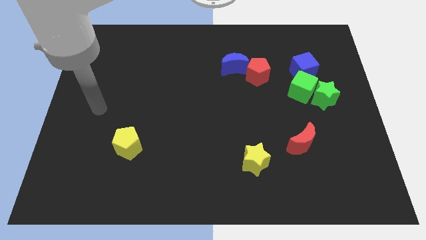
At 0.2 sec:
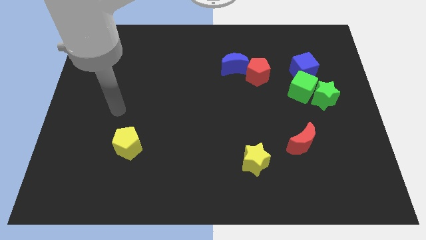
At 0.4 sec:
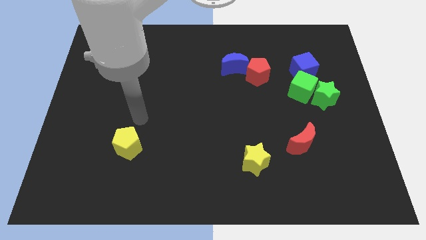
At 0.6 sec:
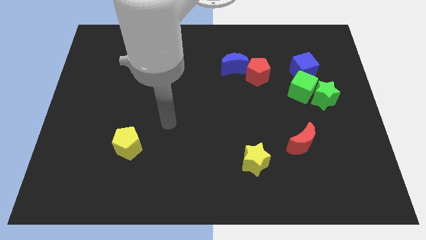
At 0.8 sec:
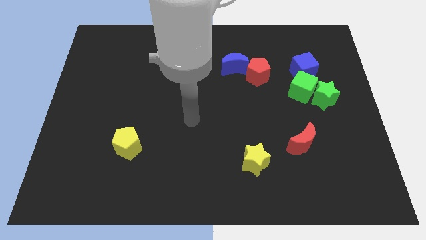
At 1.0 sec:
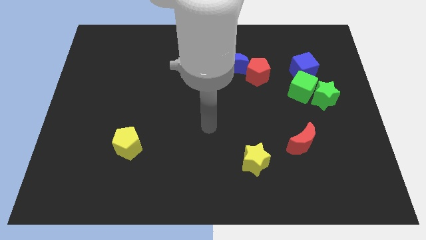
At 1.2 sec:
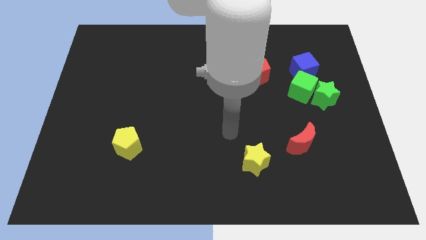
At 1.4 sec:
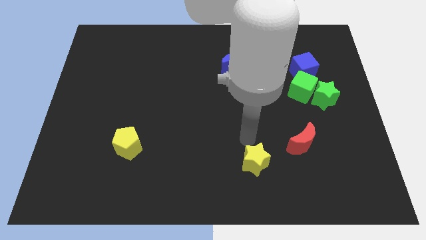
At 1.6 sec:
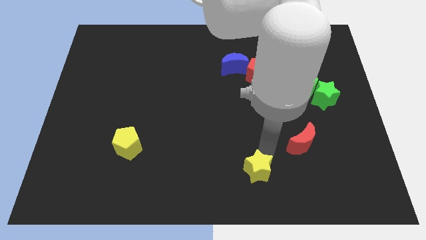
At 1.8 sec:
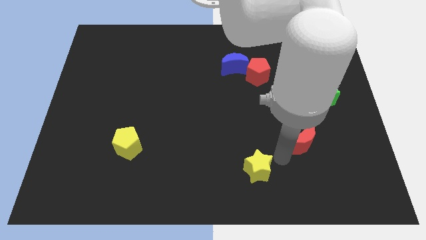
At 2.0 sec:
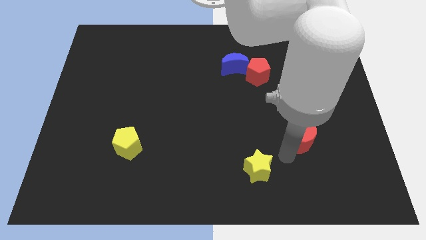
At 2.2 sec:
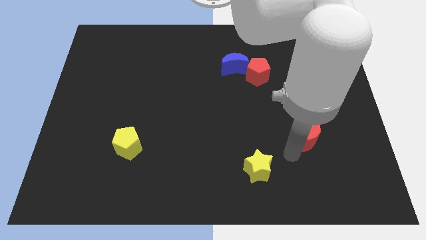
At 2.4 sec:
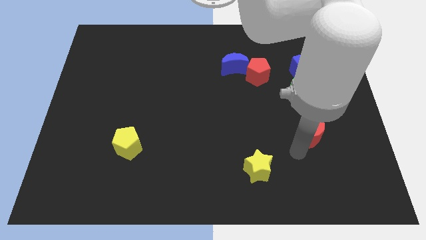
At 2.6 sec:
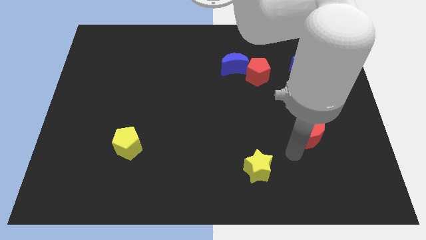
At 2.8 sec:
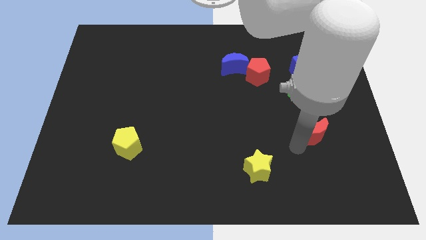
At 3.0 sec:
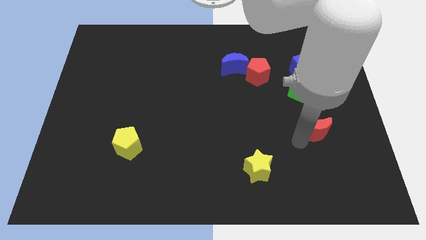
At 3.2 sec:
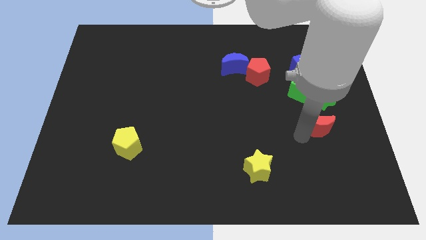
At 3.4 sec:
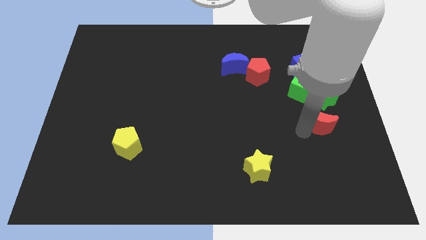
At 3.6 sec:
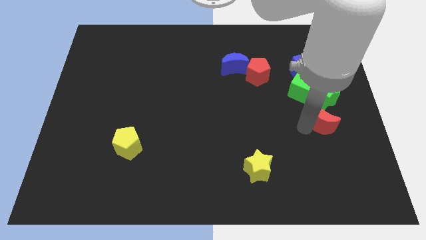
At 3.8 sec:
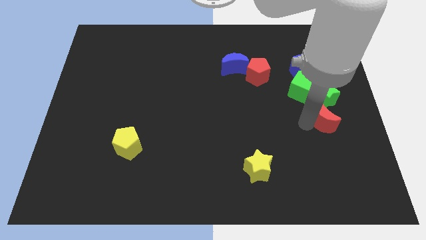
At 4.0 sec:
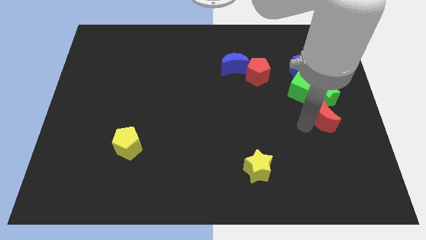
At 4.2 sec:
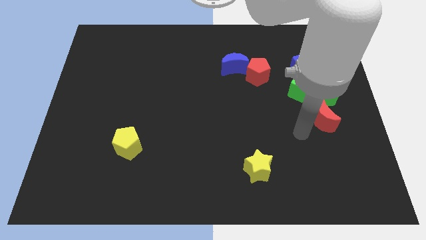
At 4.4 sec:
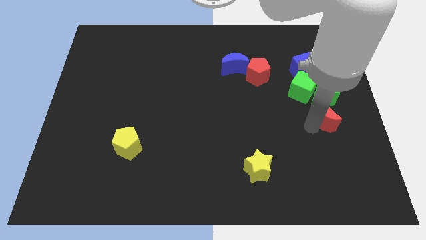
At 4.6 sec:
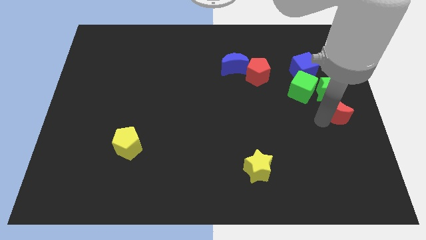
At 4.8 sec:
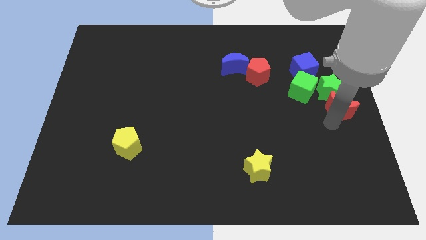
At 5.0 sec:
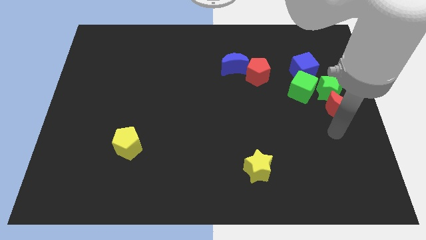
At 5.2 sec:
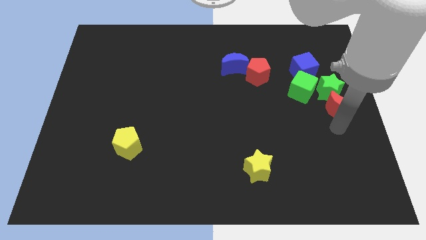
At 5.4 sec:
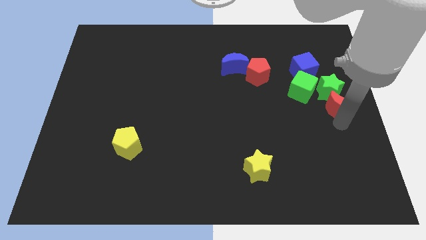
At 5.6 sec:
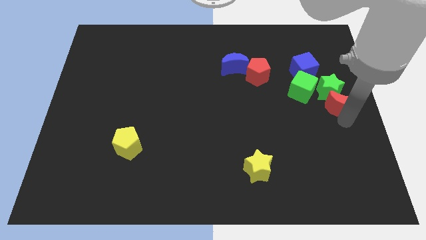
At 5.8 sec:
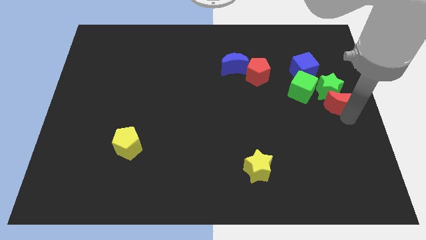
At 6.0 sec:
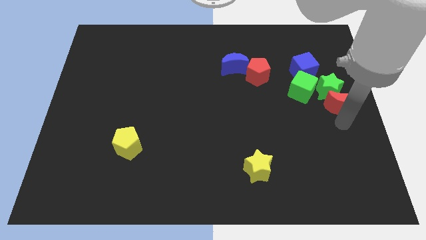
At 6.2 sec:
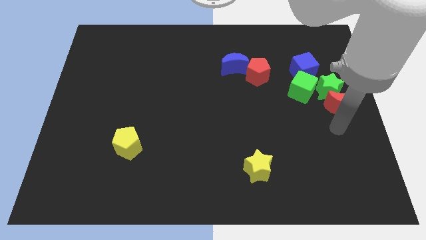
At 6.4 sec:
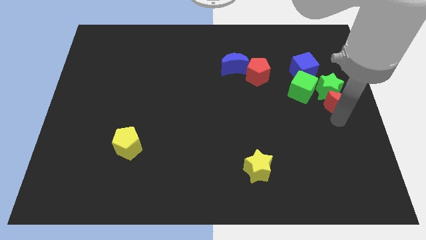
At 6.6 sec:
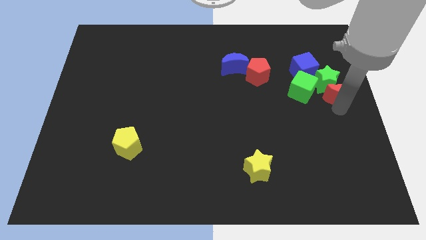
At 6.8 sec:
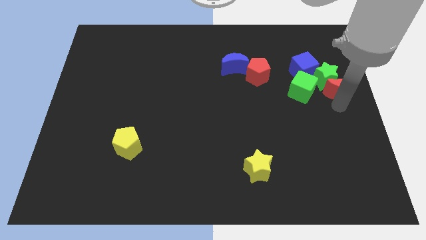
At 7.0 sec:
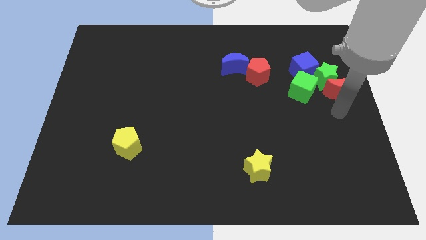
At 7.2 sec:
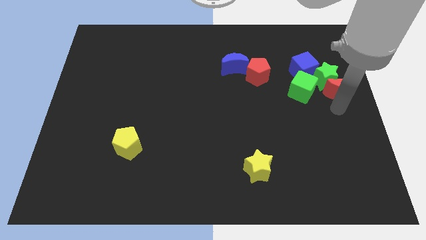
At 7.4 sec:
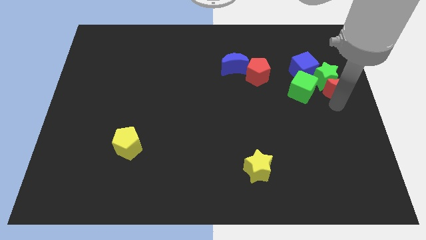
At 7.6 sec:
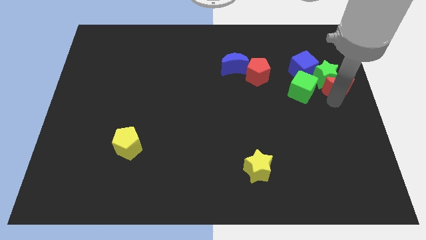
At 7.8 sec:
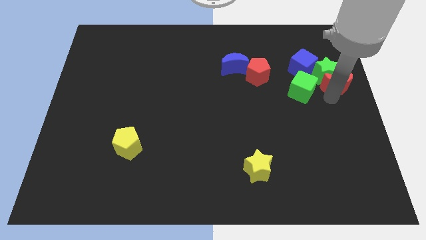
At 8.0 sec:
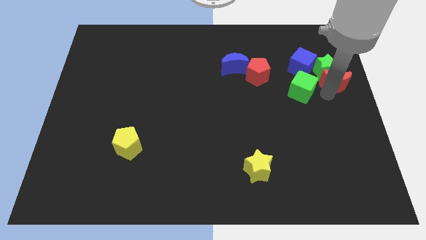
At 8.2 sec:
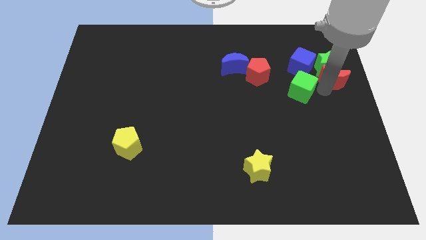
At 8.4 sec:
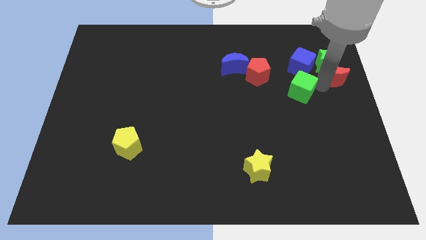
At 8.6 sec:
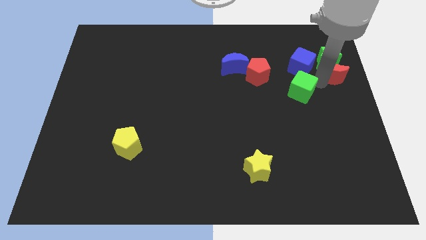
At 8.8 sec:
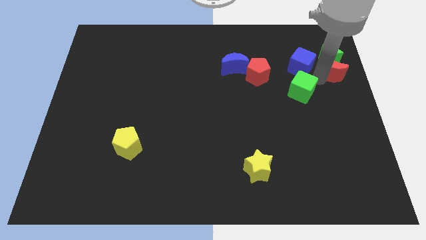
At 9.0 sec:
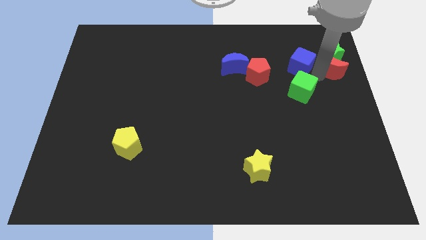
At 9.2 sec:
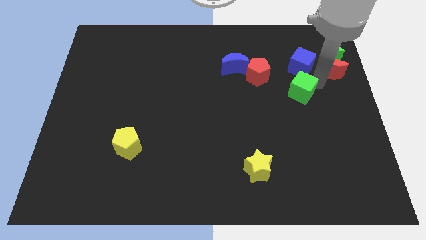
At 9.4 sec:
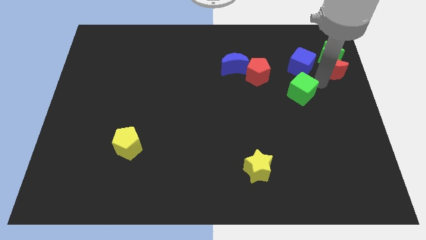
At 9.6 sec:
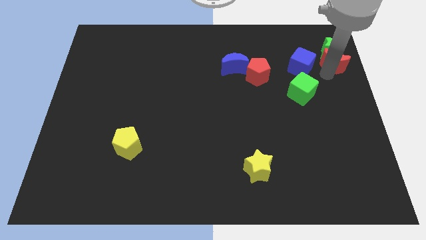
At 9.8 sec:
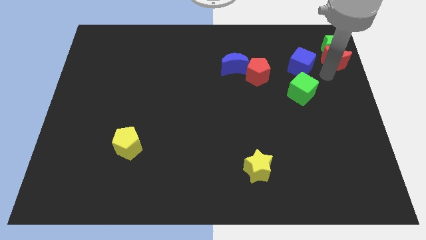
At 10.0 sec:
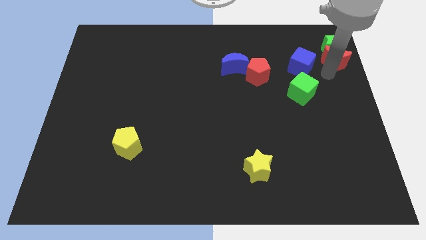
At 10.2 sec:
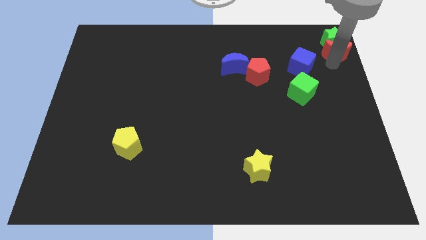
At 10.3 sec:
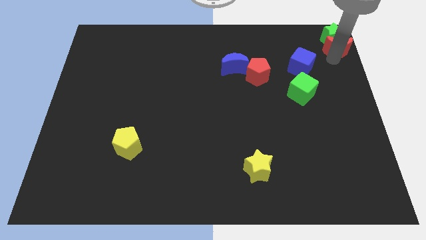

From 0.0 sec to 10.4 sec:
slide the red moon to the upper right corner

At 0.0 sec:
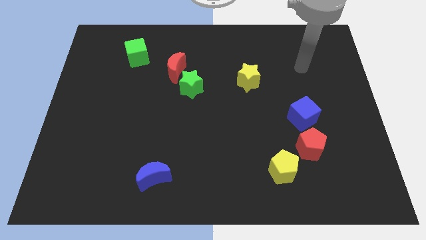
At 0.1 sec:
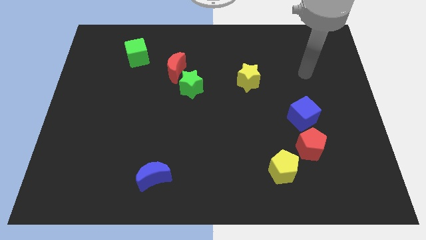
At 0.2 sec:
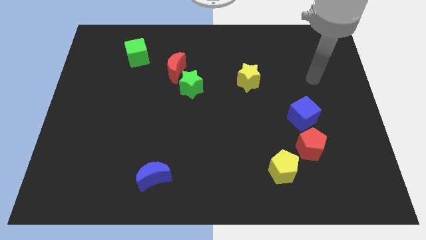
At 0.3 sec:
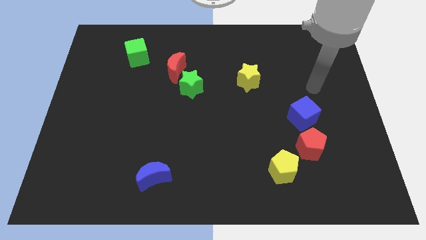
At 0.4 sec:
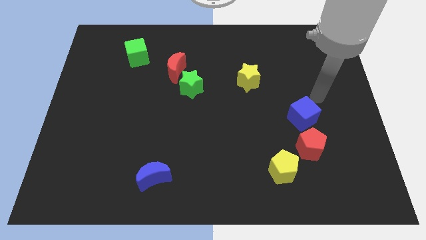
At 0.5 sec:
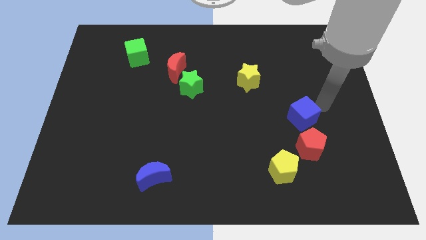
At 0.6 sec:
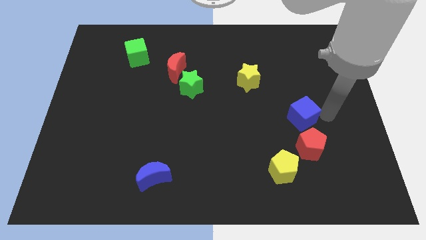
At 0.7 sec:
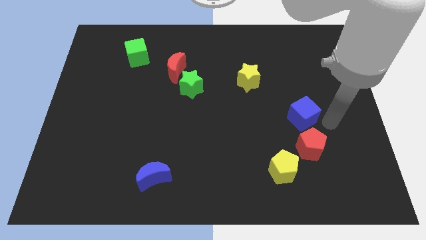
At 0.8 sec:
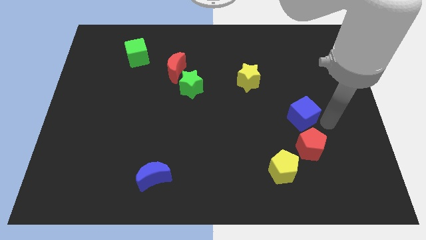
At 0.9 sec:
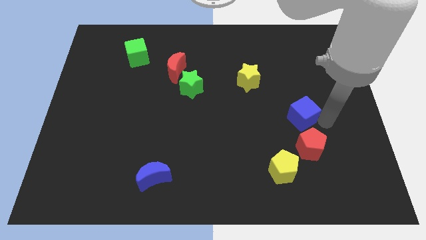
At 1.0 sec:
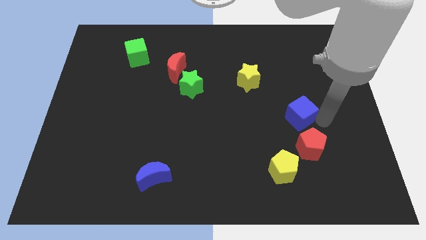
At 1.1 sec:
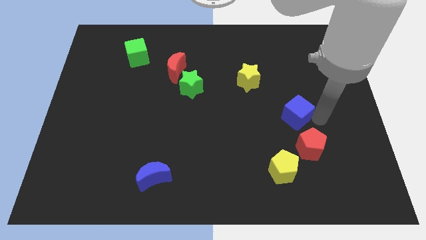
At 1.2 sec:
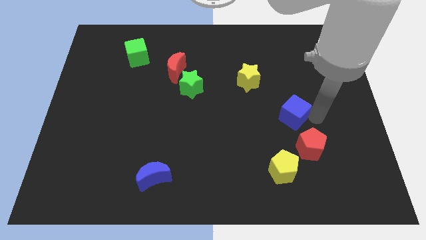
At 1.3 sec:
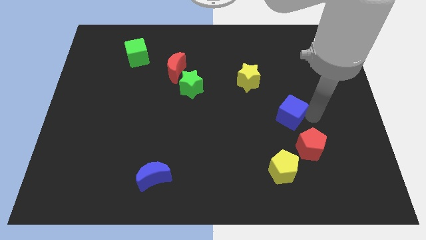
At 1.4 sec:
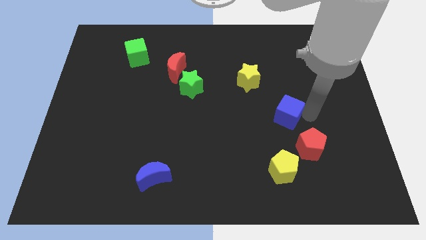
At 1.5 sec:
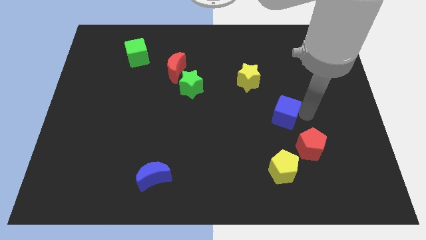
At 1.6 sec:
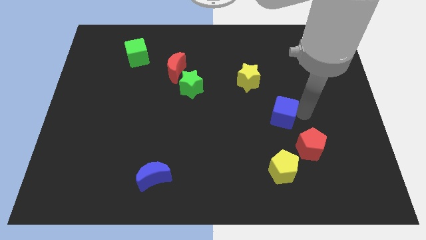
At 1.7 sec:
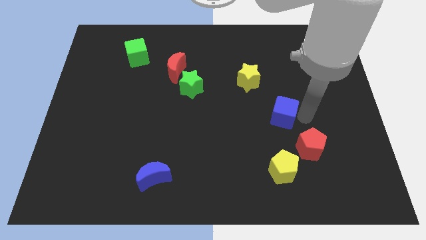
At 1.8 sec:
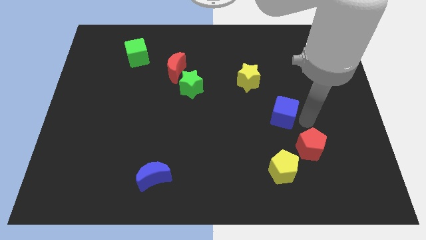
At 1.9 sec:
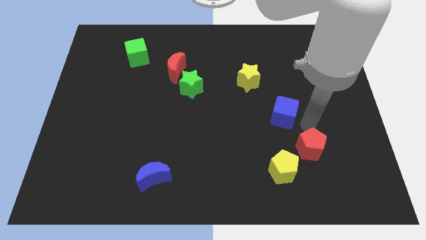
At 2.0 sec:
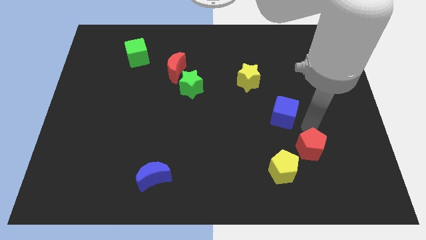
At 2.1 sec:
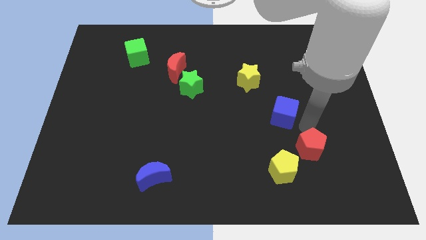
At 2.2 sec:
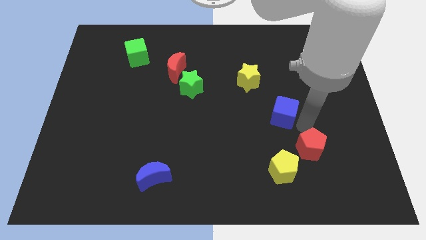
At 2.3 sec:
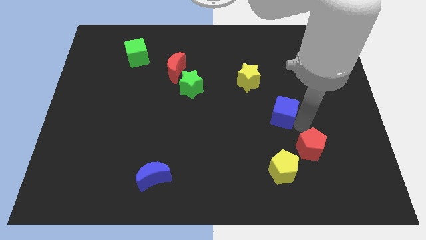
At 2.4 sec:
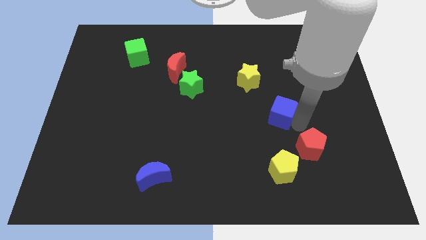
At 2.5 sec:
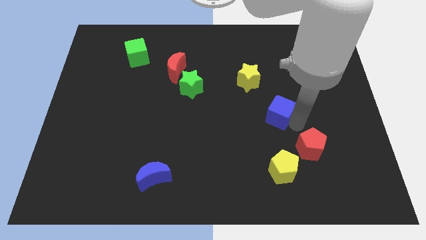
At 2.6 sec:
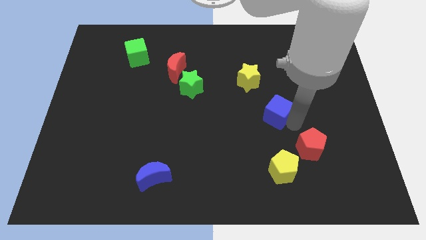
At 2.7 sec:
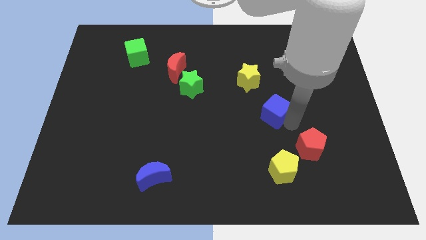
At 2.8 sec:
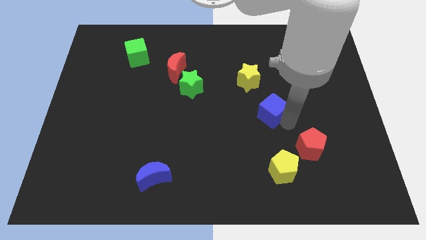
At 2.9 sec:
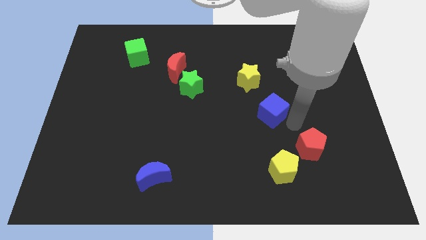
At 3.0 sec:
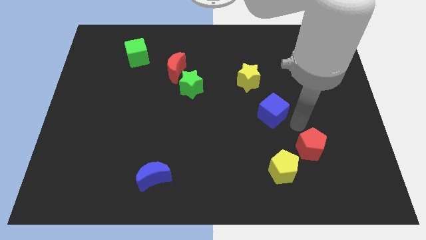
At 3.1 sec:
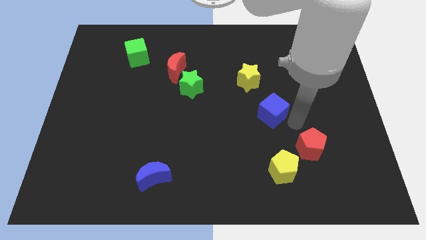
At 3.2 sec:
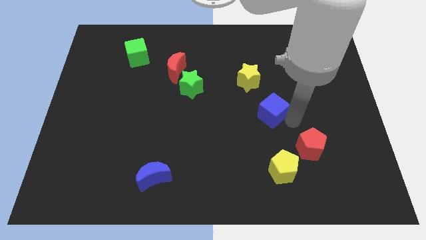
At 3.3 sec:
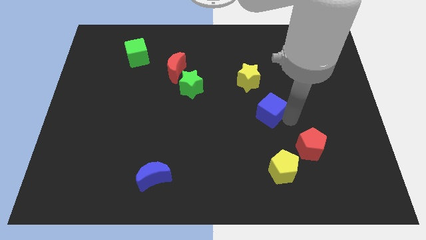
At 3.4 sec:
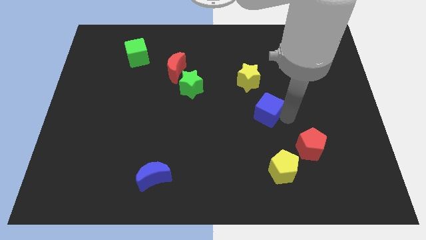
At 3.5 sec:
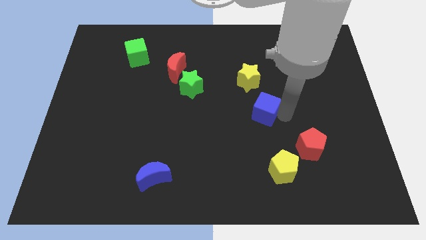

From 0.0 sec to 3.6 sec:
slide the blue cube to the middle
